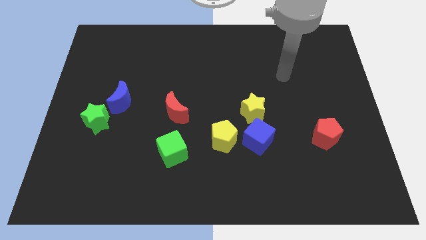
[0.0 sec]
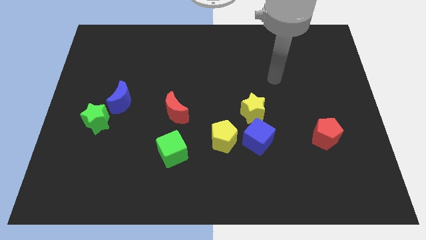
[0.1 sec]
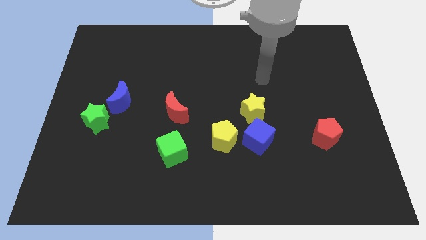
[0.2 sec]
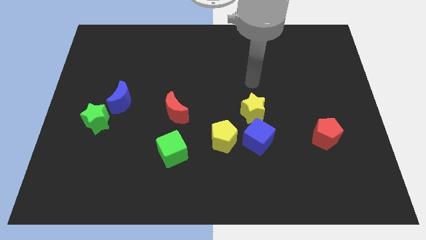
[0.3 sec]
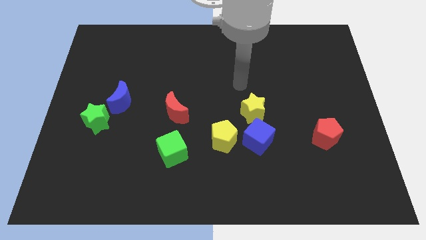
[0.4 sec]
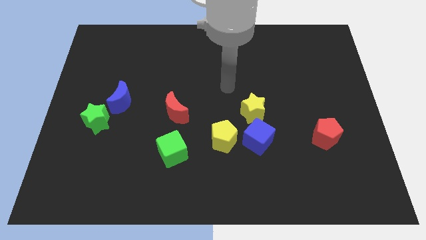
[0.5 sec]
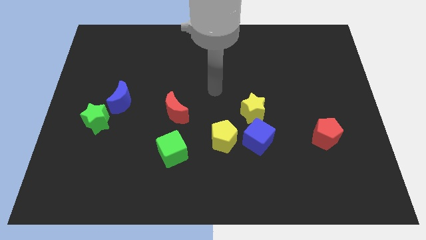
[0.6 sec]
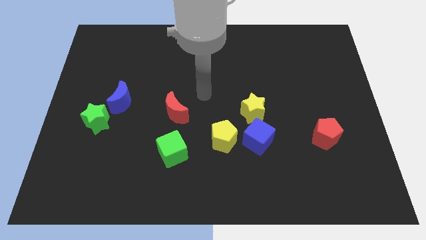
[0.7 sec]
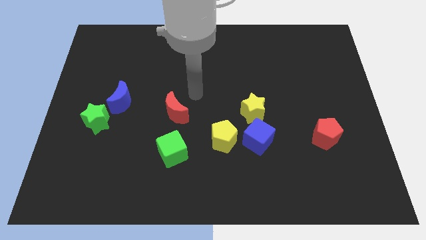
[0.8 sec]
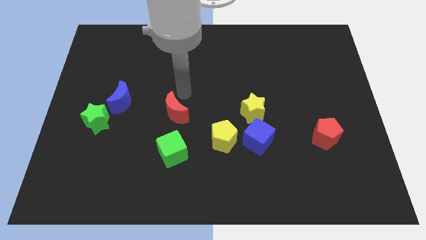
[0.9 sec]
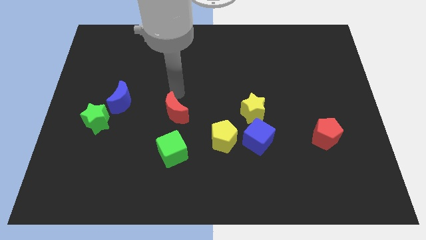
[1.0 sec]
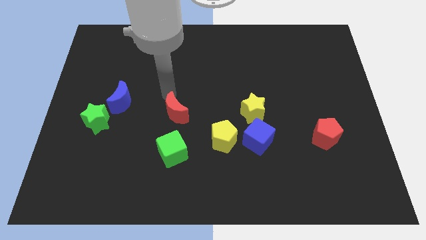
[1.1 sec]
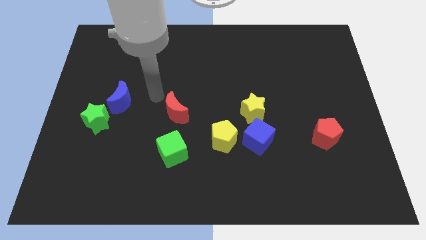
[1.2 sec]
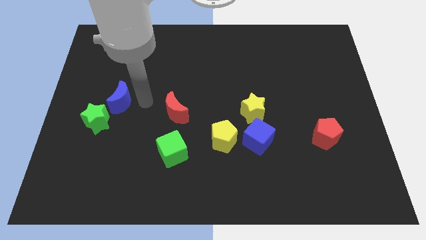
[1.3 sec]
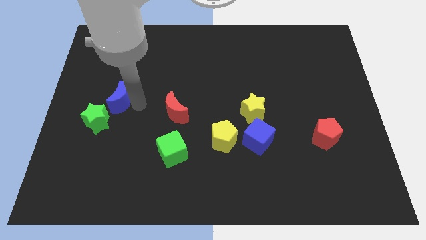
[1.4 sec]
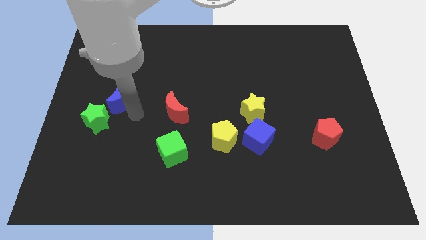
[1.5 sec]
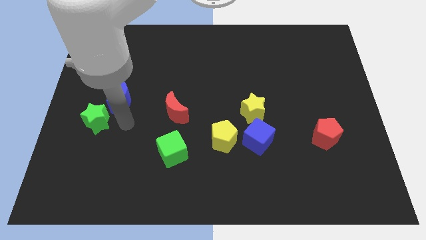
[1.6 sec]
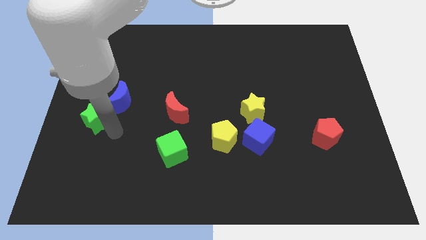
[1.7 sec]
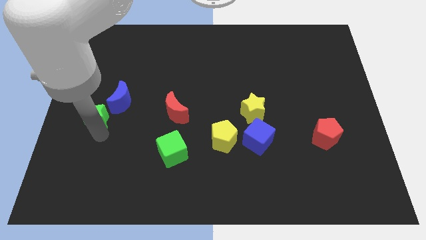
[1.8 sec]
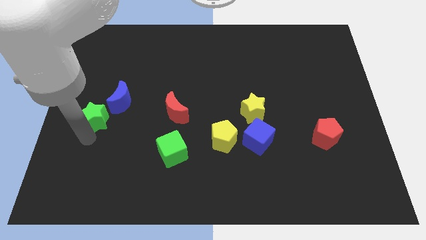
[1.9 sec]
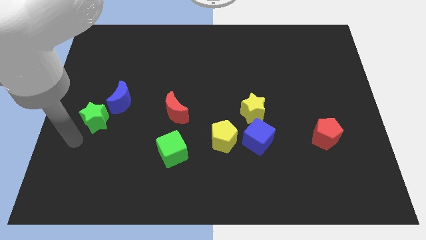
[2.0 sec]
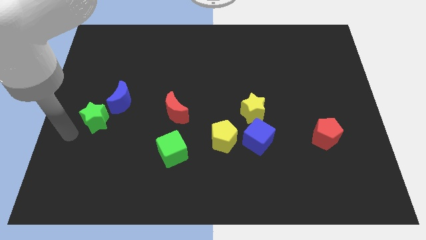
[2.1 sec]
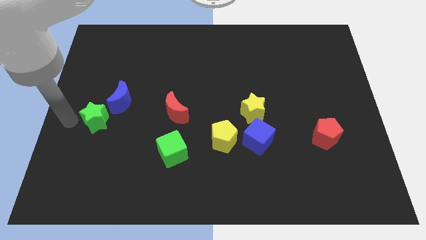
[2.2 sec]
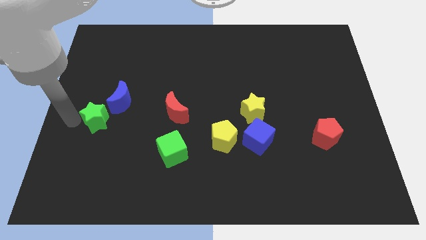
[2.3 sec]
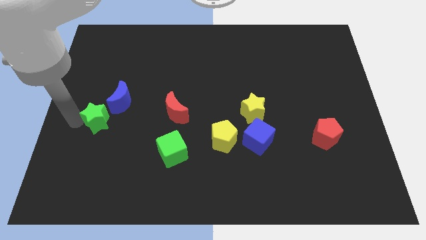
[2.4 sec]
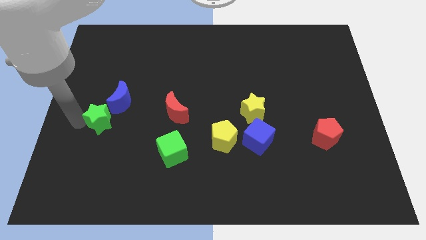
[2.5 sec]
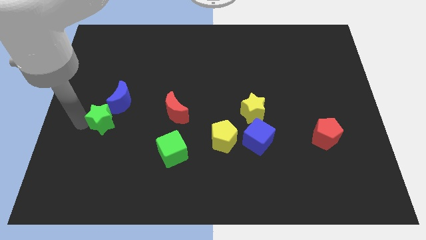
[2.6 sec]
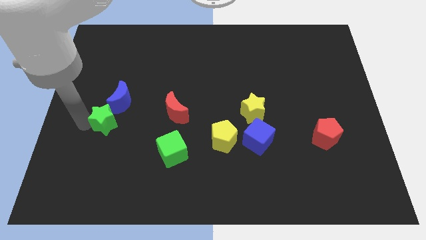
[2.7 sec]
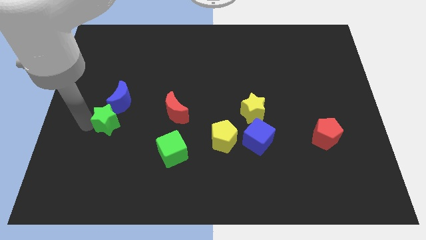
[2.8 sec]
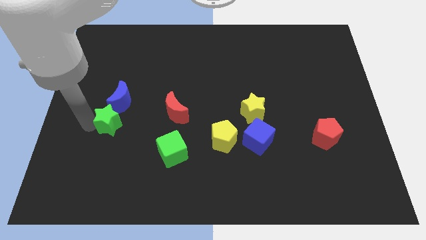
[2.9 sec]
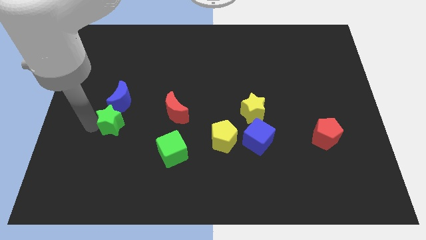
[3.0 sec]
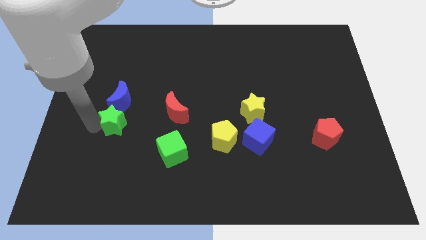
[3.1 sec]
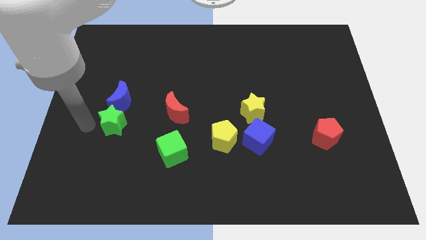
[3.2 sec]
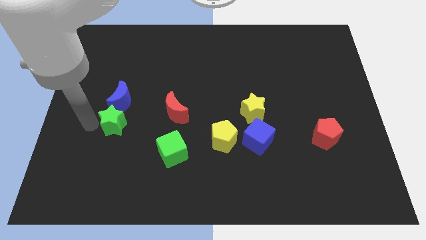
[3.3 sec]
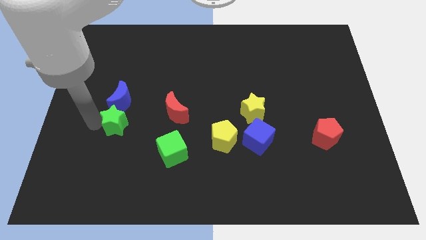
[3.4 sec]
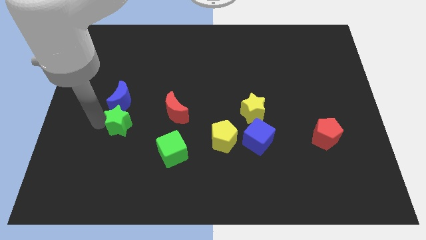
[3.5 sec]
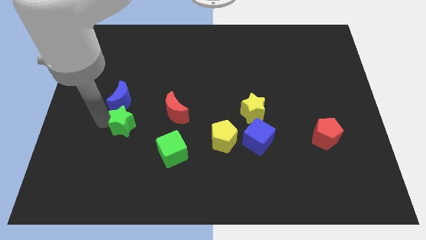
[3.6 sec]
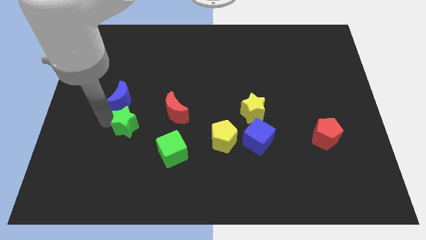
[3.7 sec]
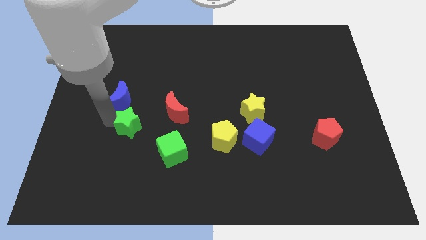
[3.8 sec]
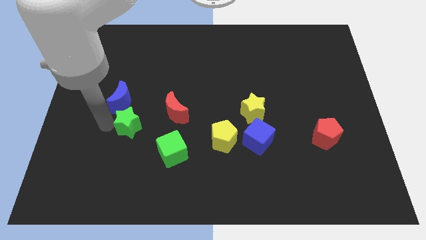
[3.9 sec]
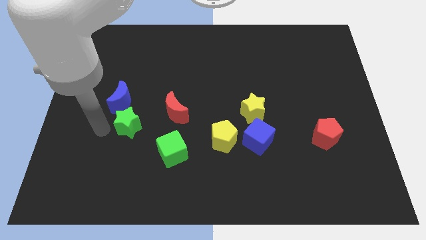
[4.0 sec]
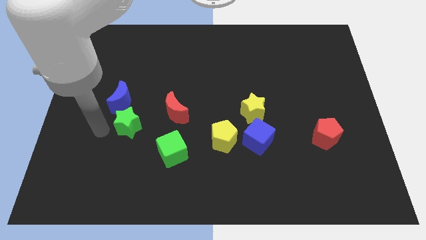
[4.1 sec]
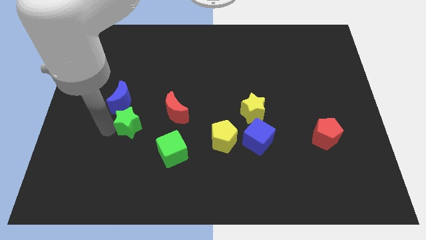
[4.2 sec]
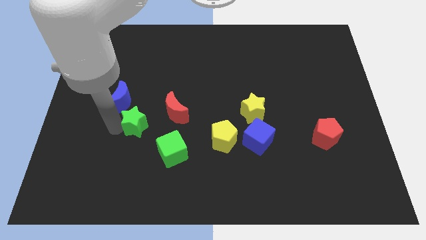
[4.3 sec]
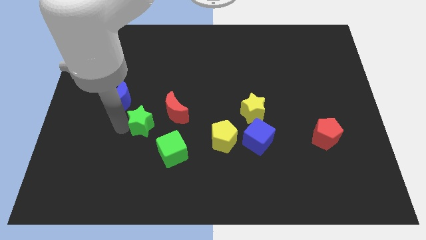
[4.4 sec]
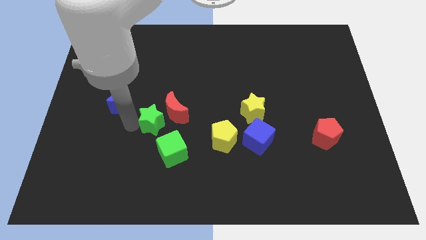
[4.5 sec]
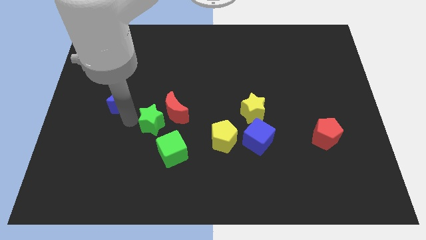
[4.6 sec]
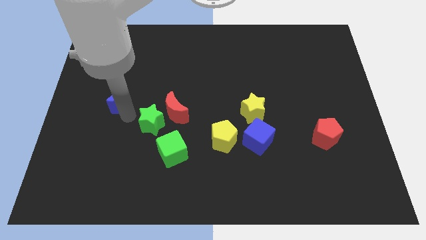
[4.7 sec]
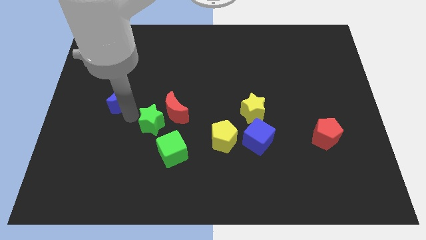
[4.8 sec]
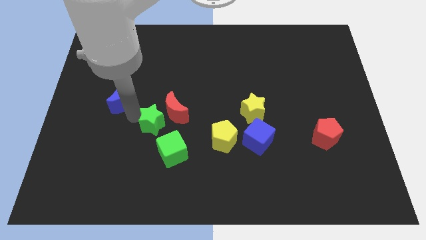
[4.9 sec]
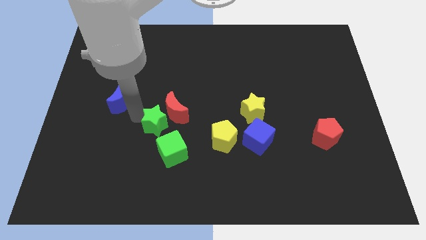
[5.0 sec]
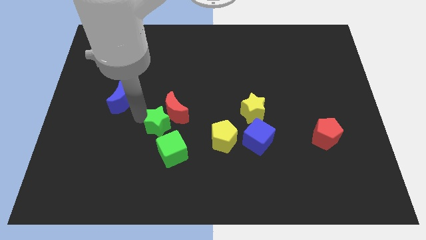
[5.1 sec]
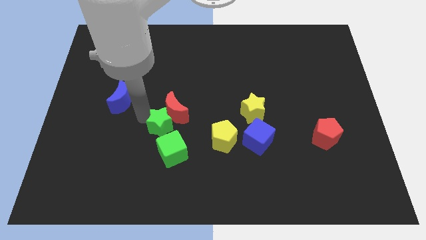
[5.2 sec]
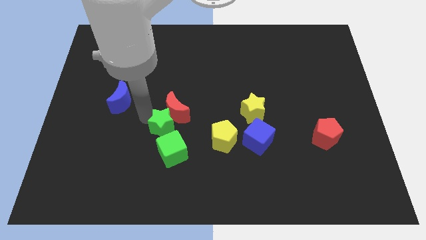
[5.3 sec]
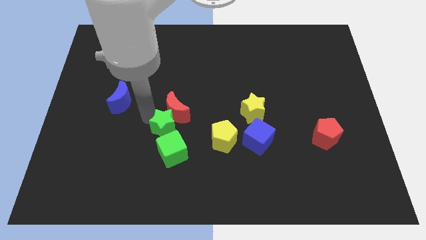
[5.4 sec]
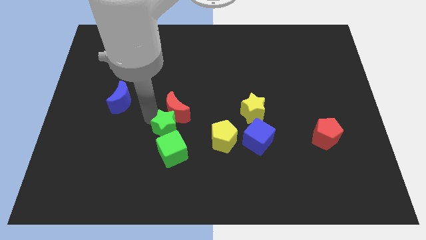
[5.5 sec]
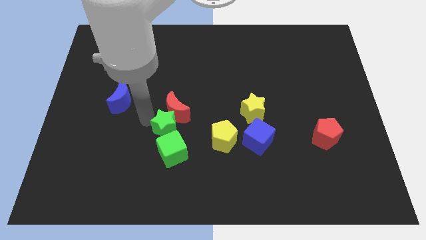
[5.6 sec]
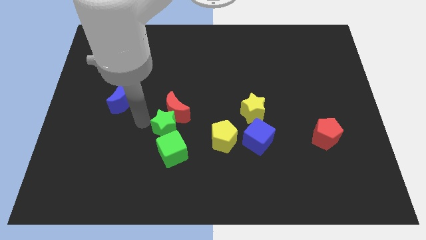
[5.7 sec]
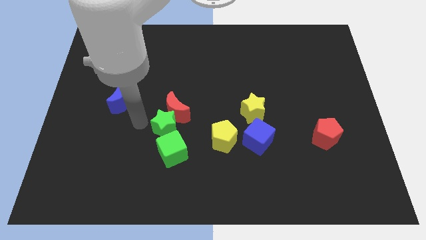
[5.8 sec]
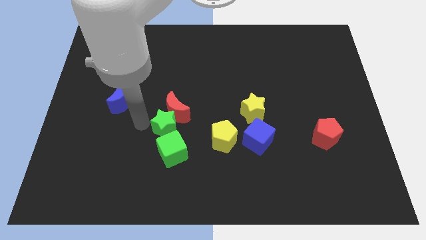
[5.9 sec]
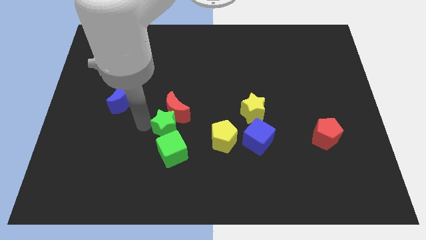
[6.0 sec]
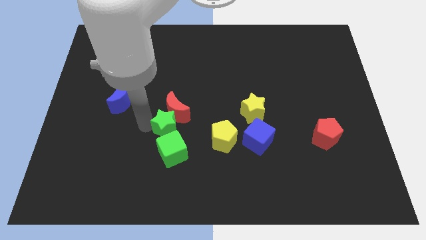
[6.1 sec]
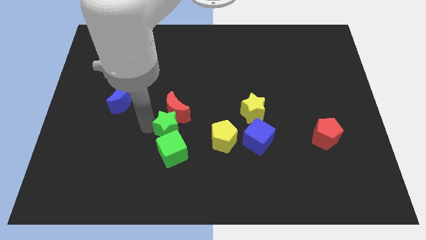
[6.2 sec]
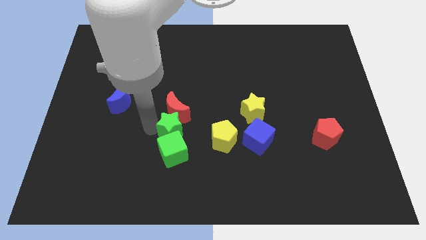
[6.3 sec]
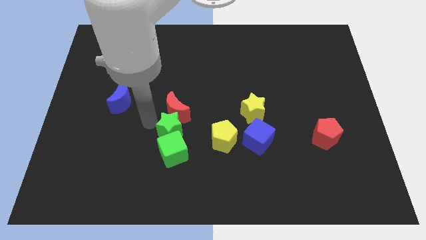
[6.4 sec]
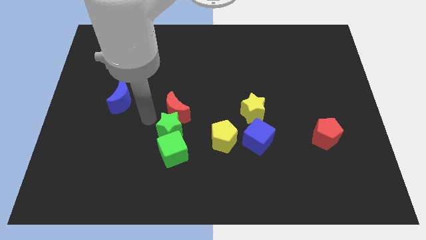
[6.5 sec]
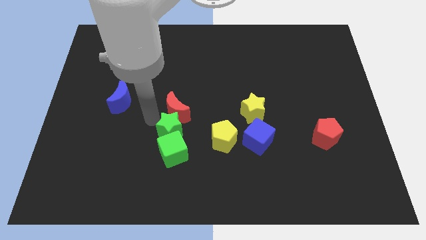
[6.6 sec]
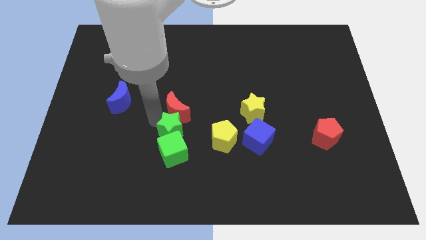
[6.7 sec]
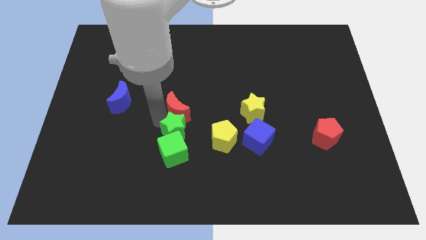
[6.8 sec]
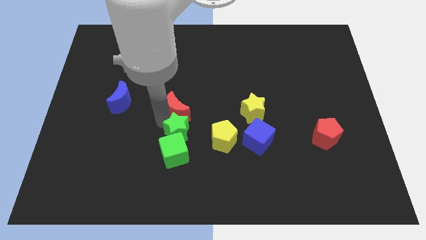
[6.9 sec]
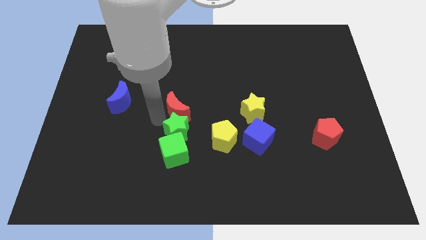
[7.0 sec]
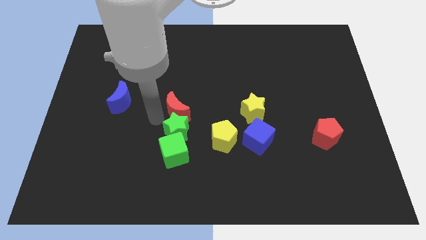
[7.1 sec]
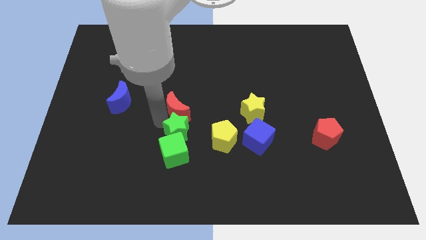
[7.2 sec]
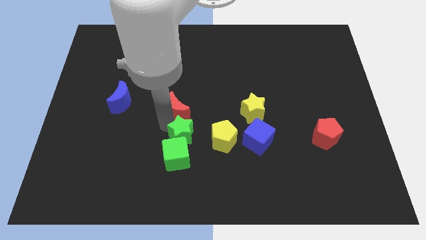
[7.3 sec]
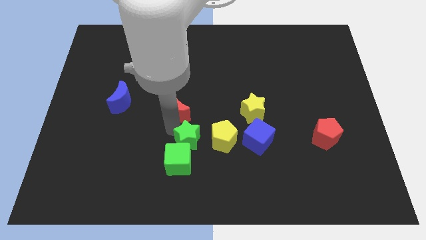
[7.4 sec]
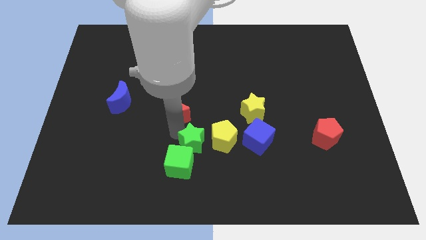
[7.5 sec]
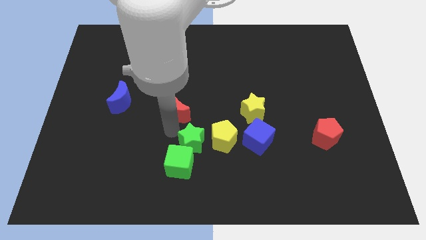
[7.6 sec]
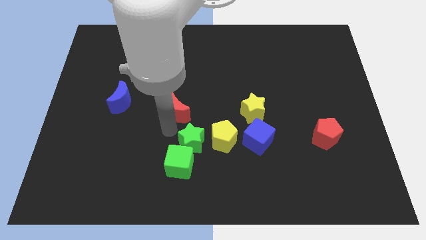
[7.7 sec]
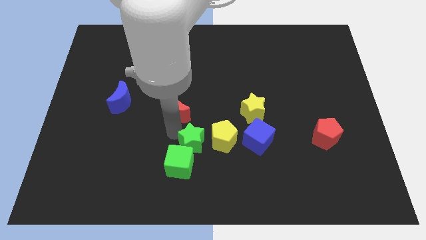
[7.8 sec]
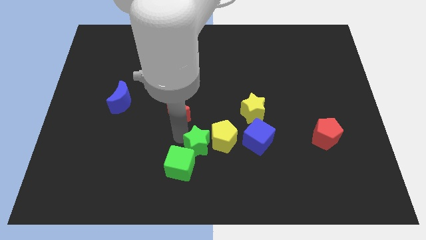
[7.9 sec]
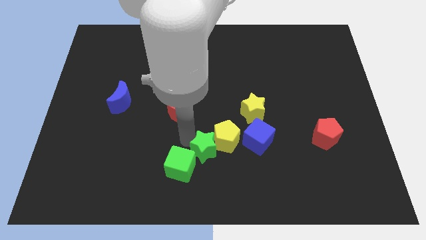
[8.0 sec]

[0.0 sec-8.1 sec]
move the green star just right of the green cube
